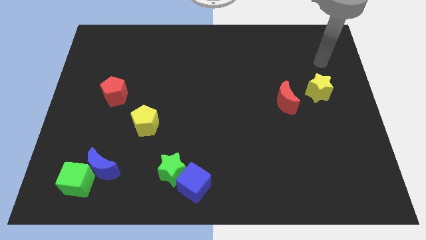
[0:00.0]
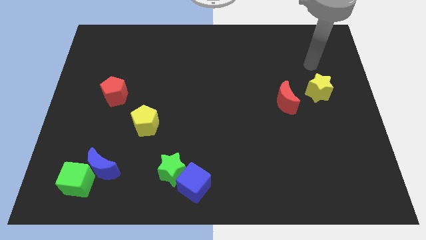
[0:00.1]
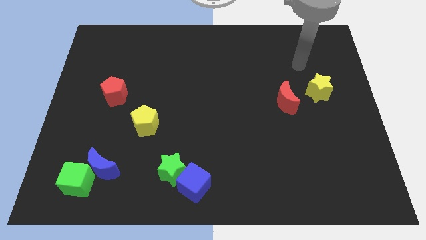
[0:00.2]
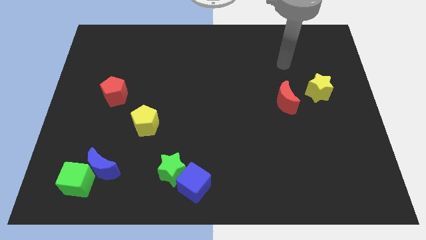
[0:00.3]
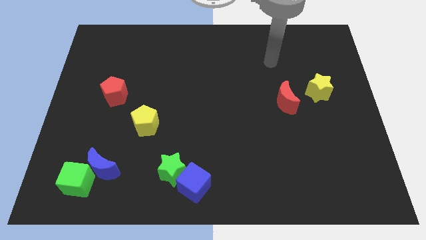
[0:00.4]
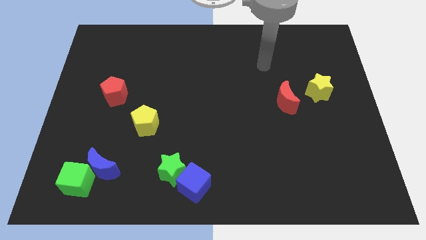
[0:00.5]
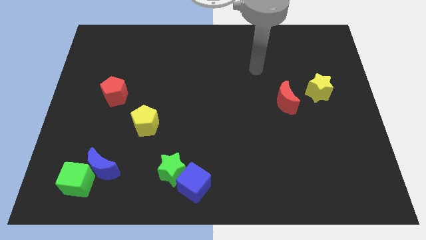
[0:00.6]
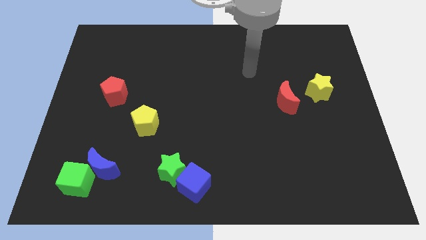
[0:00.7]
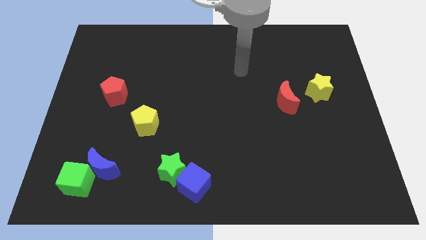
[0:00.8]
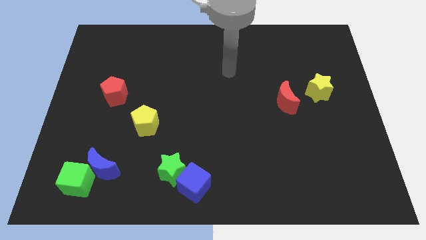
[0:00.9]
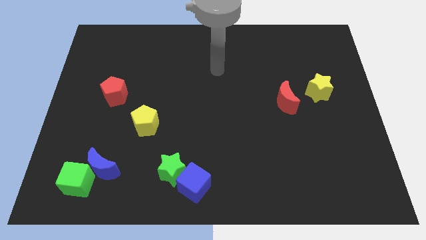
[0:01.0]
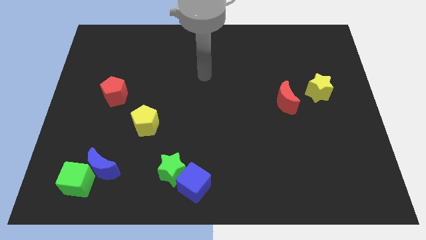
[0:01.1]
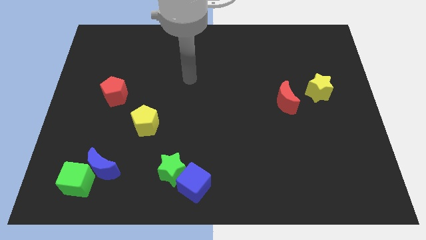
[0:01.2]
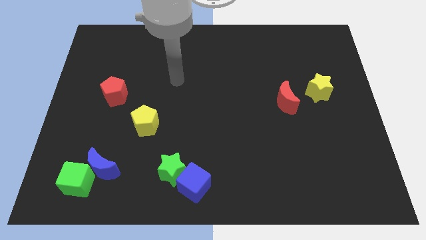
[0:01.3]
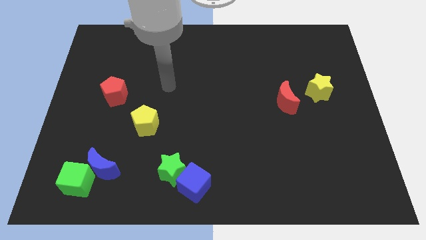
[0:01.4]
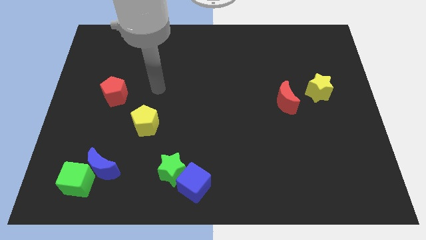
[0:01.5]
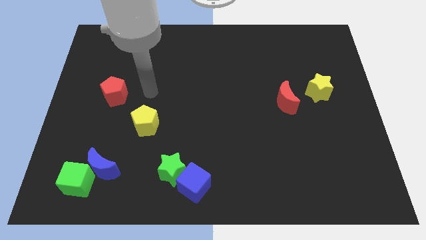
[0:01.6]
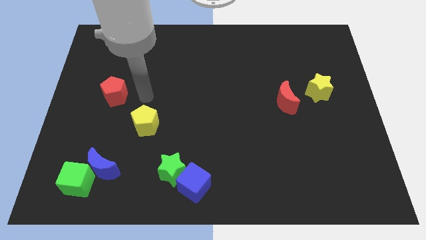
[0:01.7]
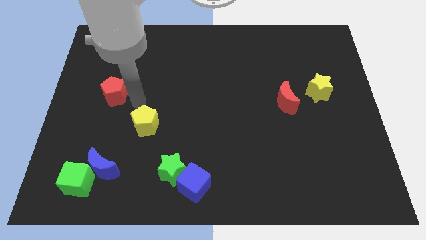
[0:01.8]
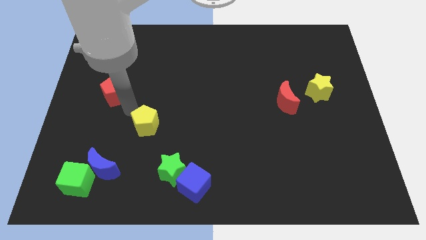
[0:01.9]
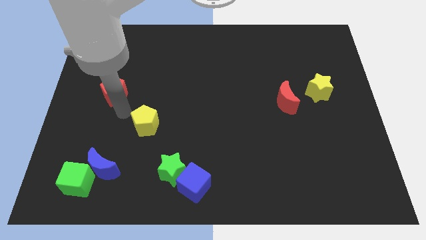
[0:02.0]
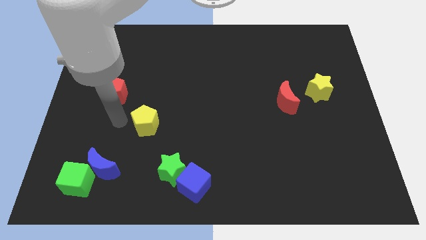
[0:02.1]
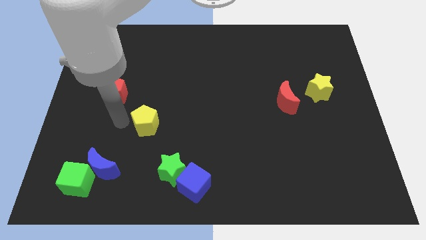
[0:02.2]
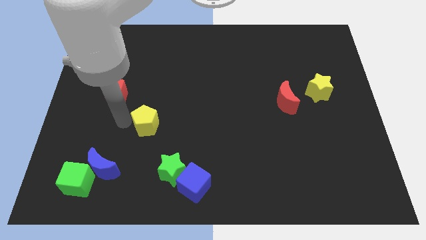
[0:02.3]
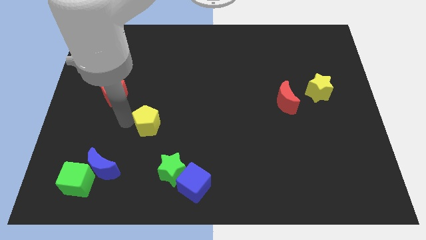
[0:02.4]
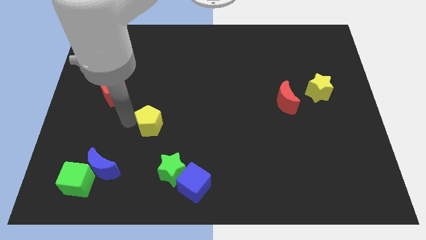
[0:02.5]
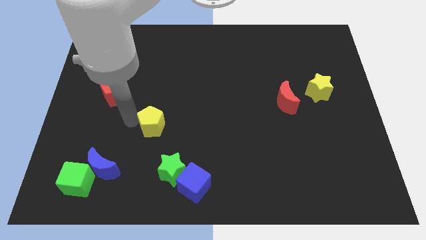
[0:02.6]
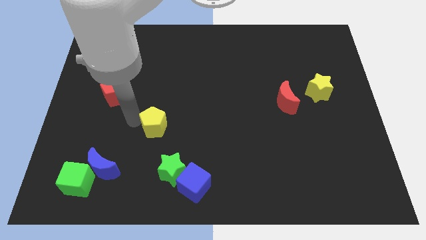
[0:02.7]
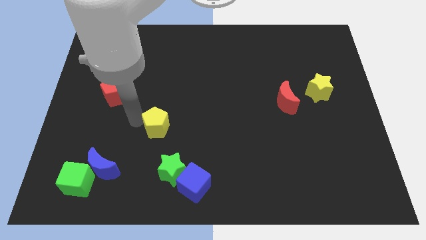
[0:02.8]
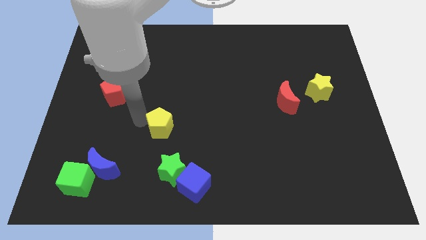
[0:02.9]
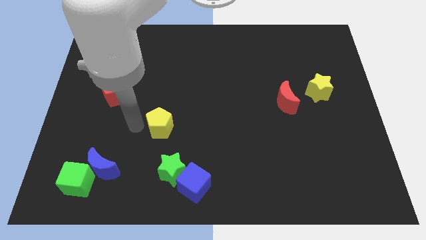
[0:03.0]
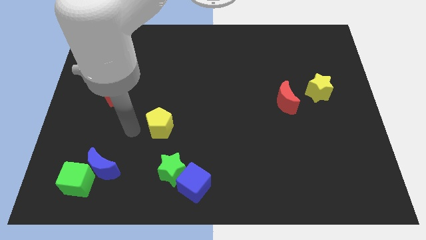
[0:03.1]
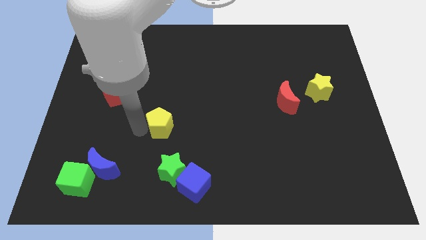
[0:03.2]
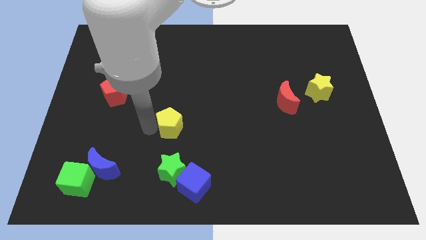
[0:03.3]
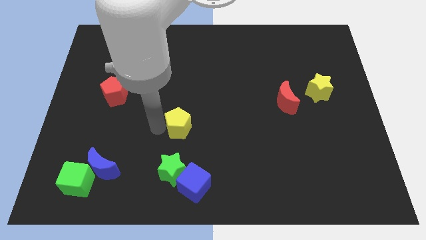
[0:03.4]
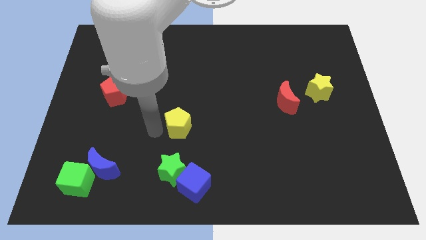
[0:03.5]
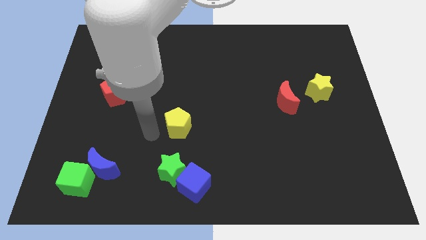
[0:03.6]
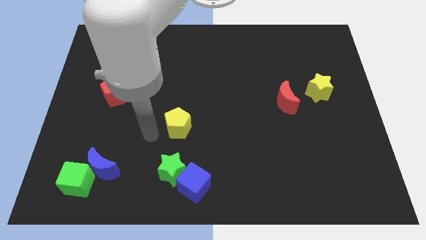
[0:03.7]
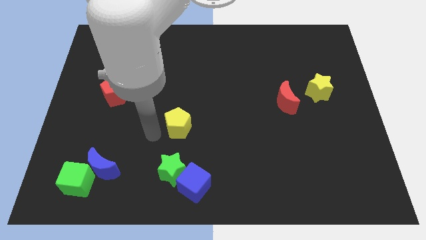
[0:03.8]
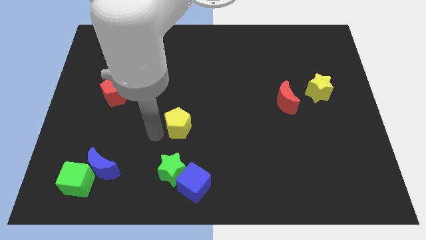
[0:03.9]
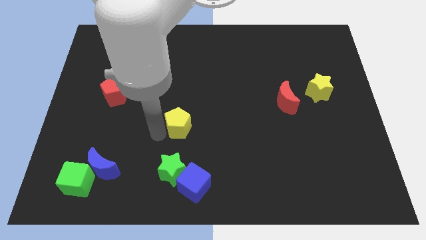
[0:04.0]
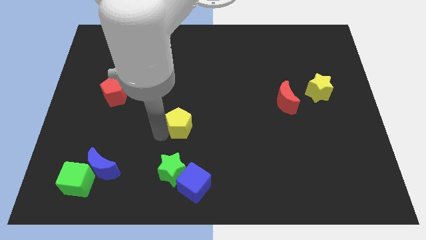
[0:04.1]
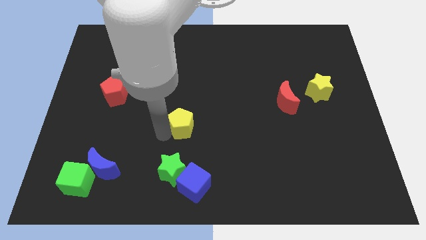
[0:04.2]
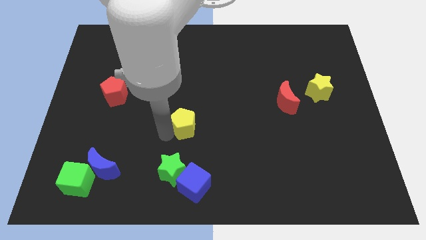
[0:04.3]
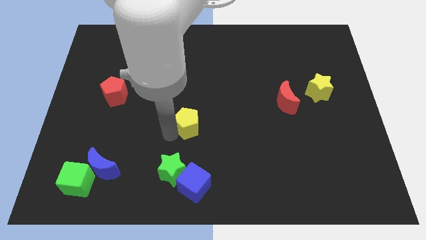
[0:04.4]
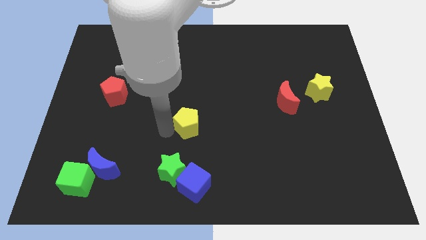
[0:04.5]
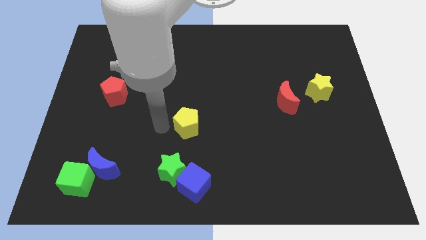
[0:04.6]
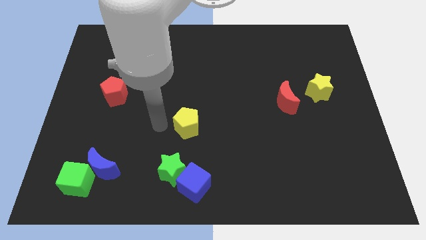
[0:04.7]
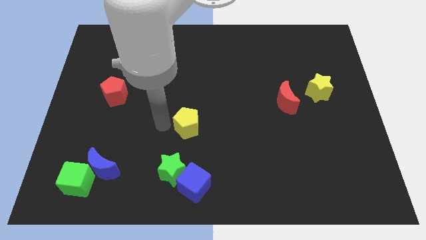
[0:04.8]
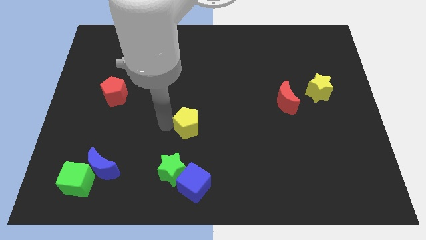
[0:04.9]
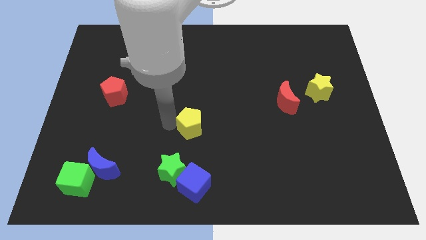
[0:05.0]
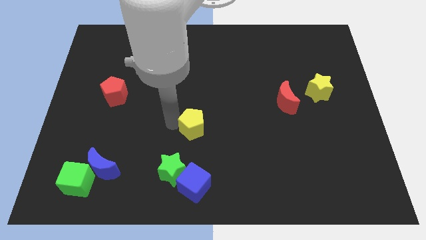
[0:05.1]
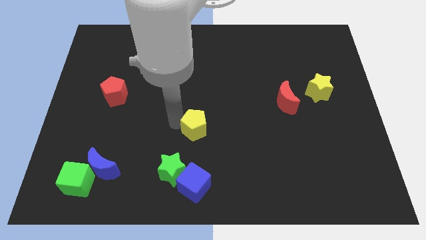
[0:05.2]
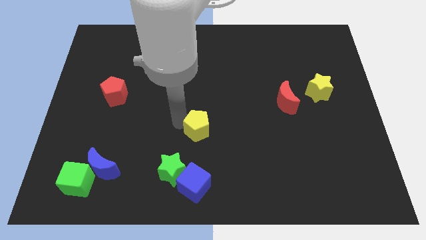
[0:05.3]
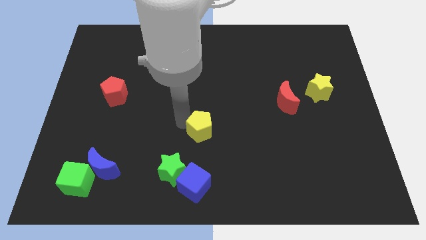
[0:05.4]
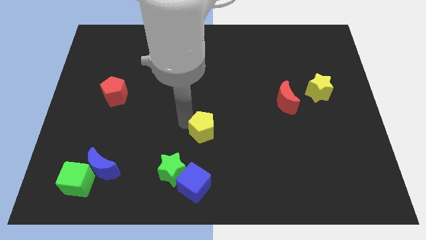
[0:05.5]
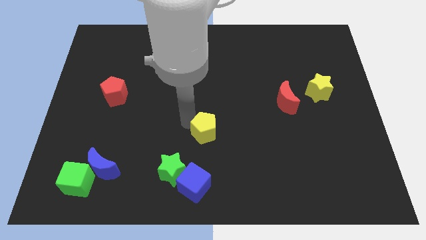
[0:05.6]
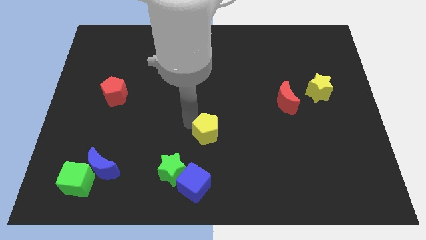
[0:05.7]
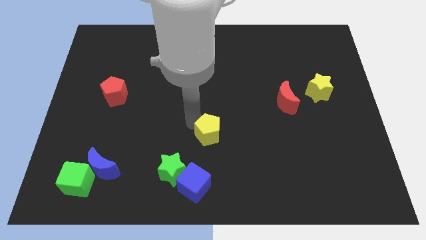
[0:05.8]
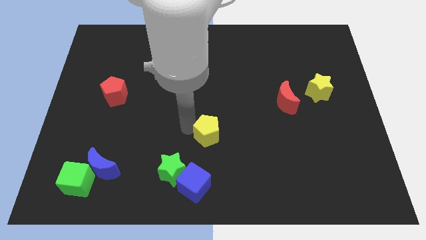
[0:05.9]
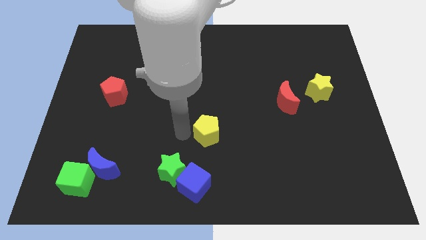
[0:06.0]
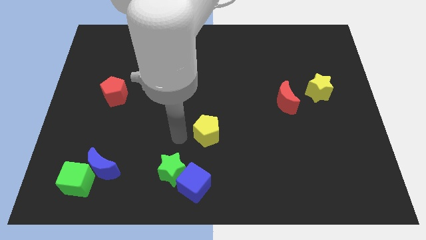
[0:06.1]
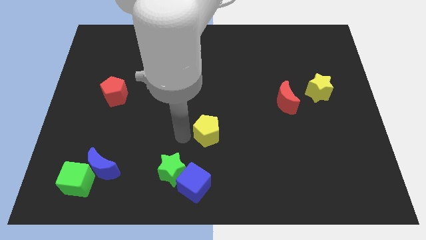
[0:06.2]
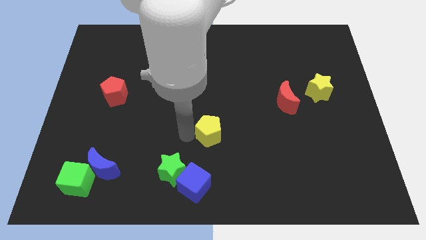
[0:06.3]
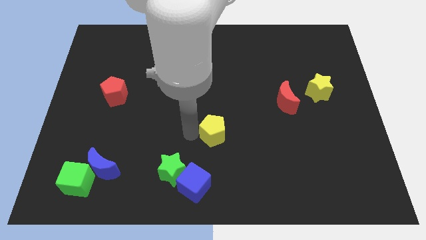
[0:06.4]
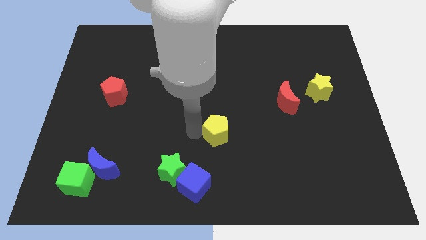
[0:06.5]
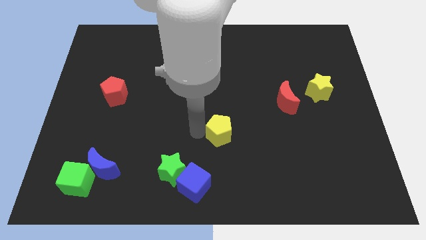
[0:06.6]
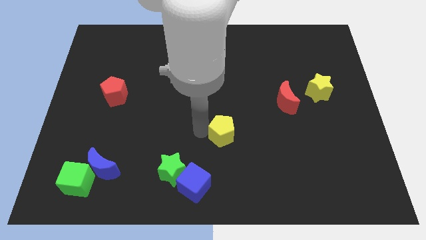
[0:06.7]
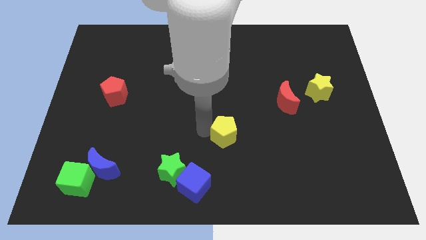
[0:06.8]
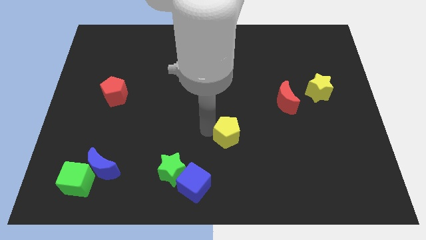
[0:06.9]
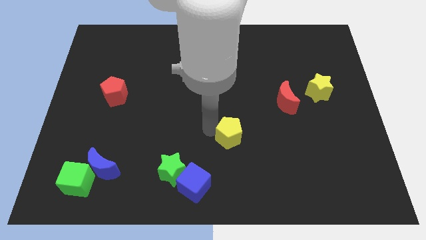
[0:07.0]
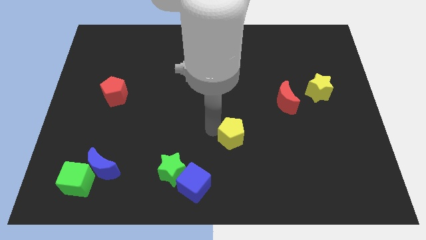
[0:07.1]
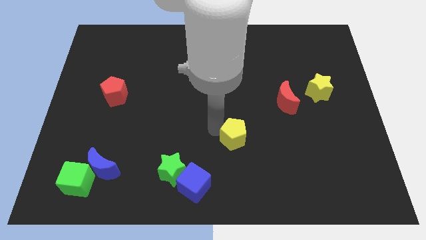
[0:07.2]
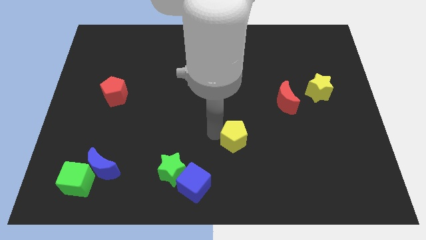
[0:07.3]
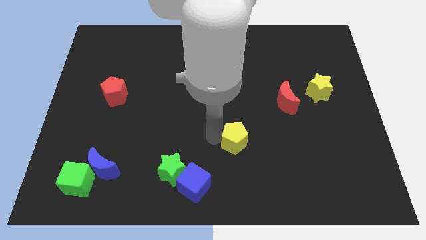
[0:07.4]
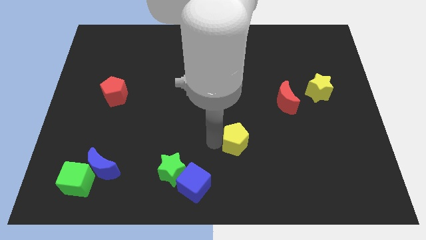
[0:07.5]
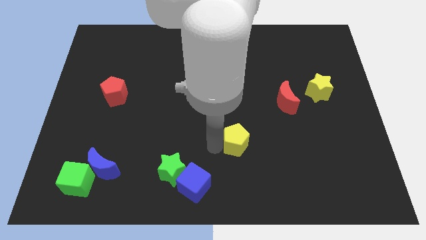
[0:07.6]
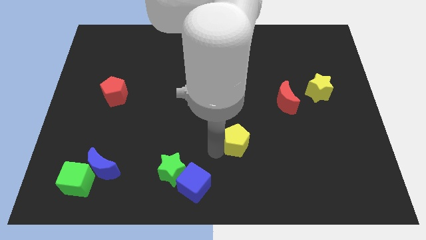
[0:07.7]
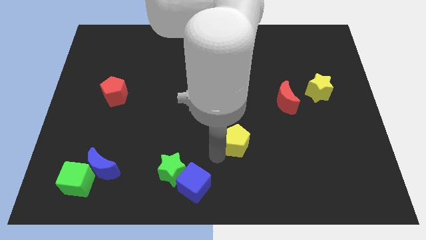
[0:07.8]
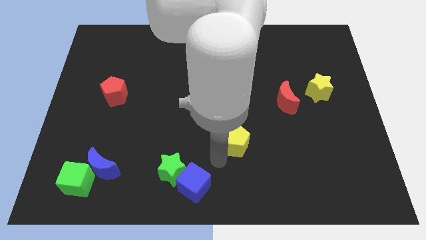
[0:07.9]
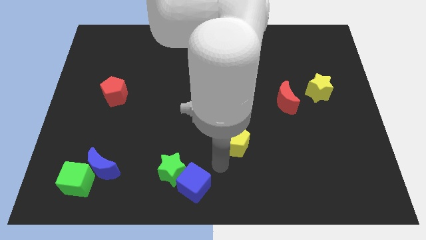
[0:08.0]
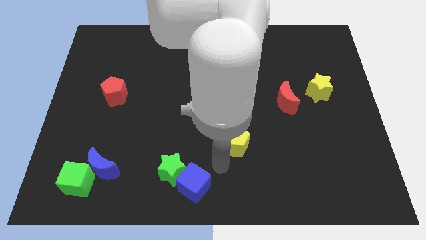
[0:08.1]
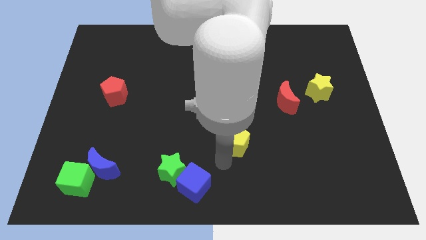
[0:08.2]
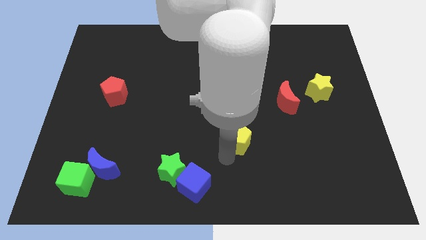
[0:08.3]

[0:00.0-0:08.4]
move the yellow pentagon right
